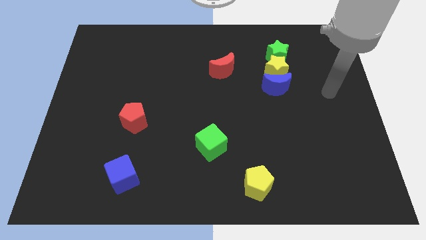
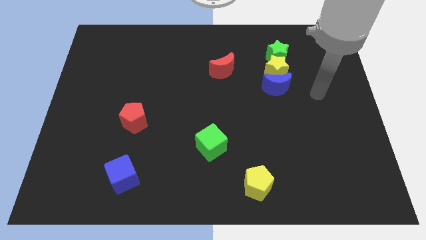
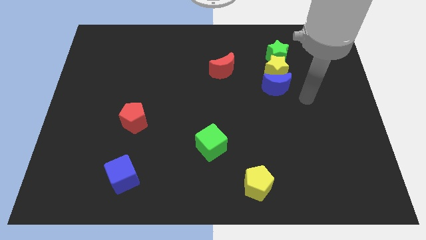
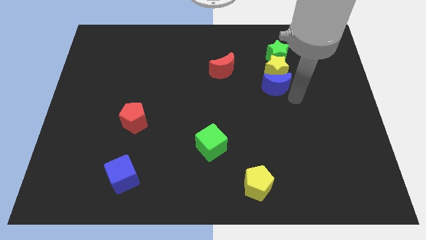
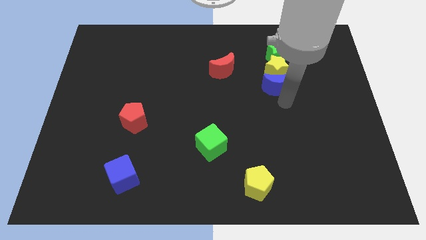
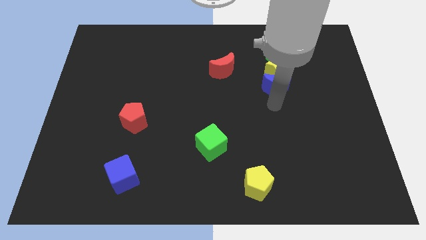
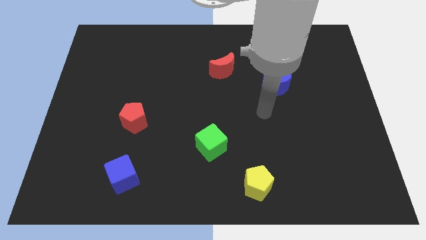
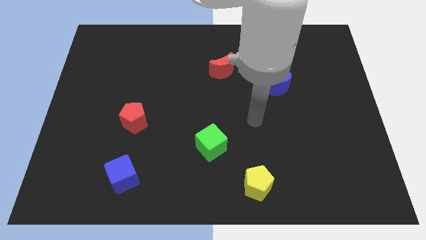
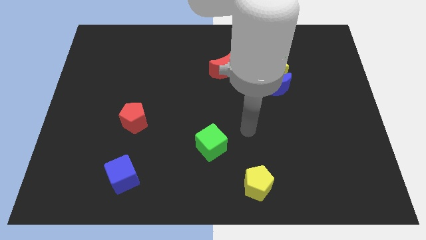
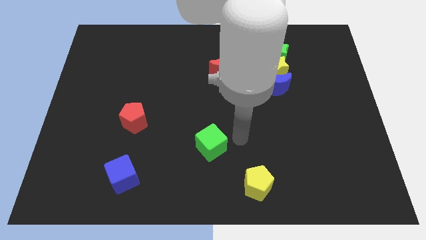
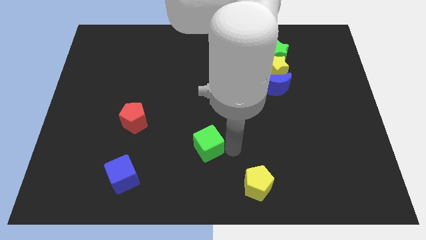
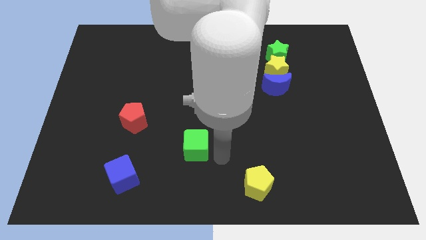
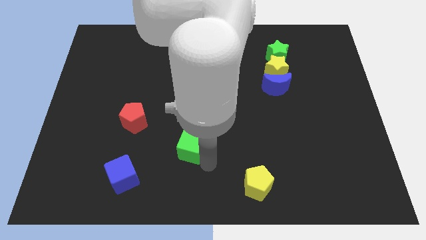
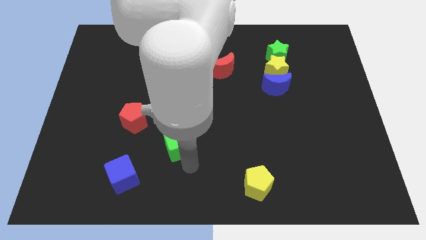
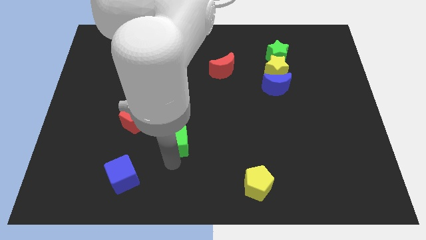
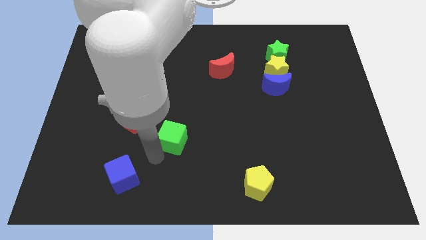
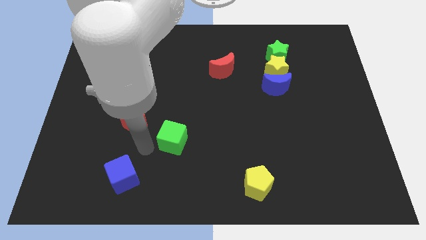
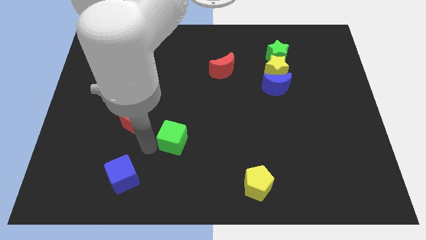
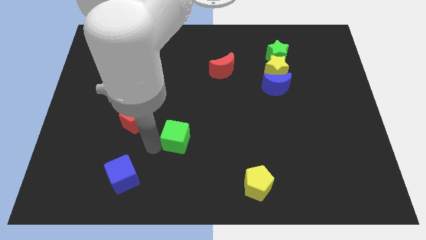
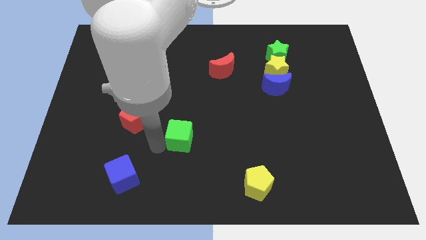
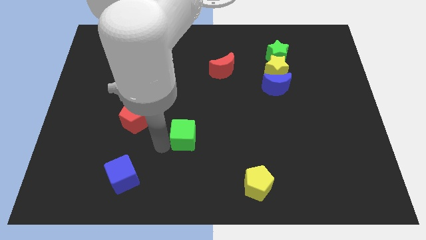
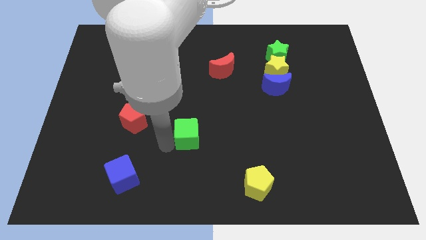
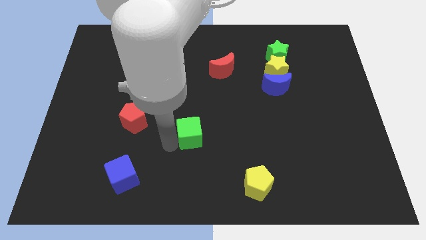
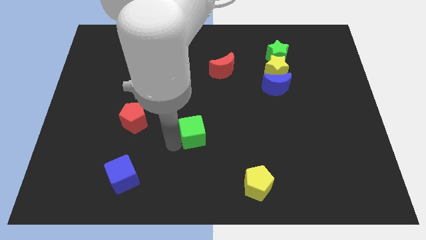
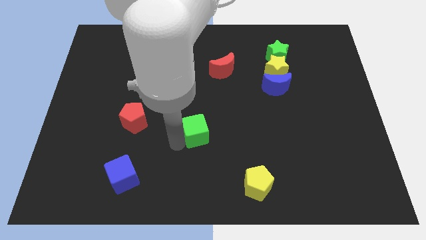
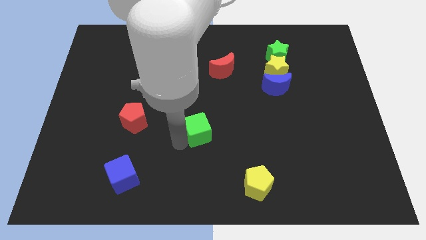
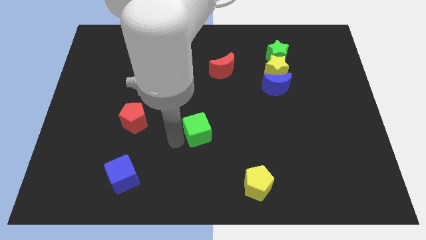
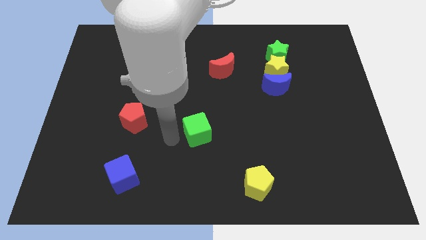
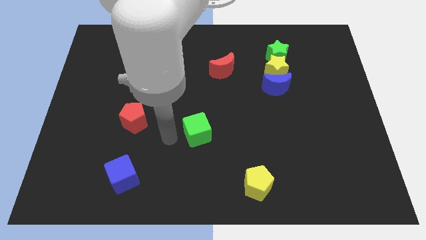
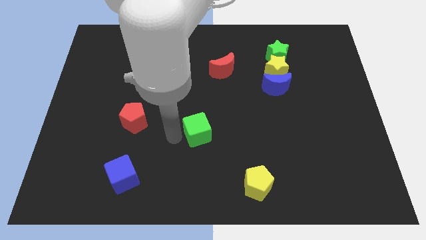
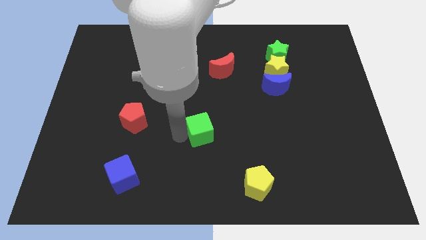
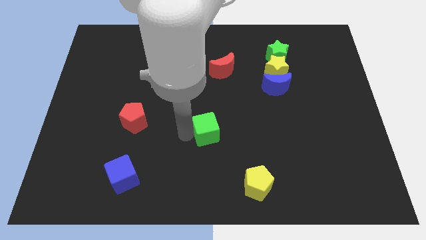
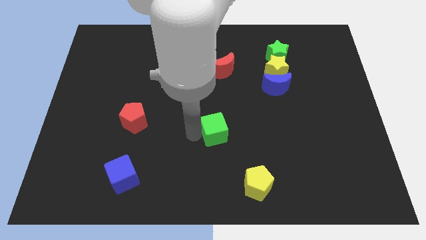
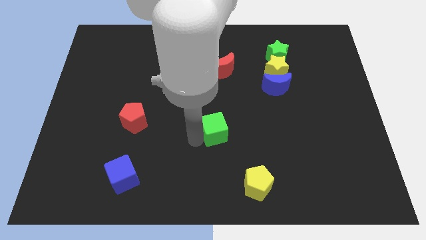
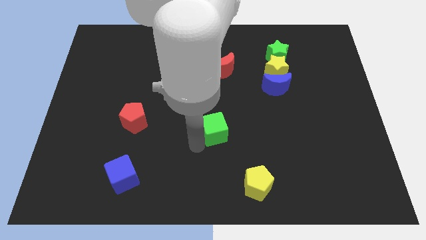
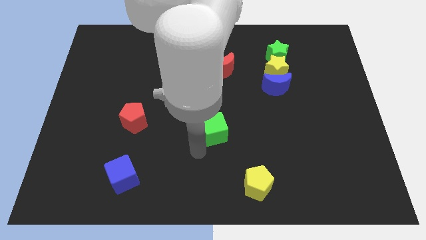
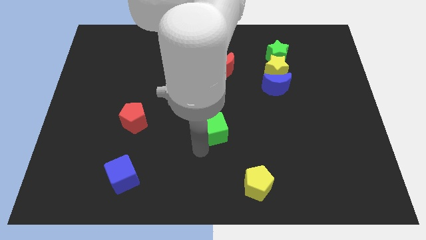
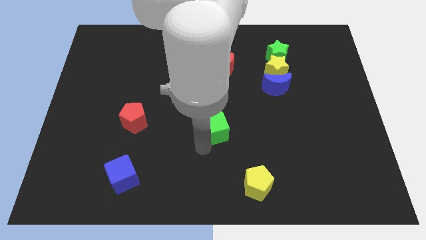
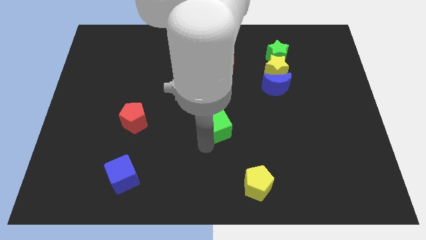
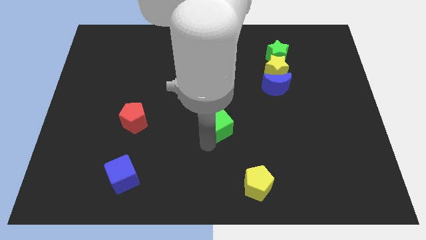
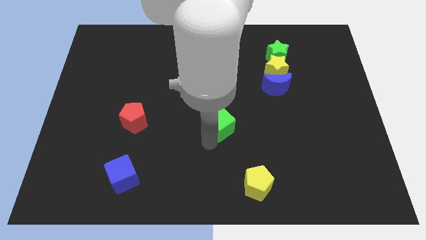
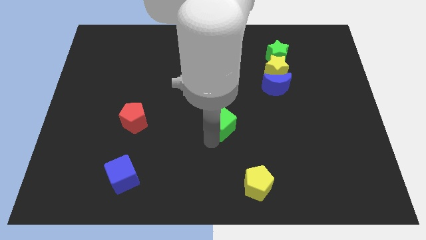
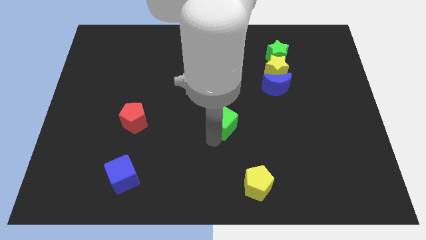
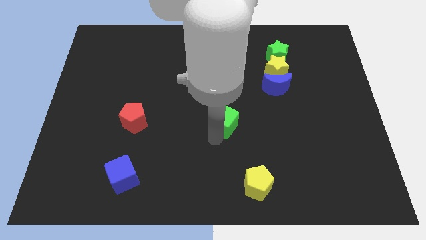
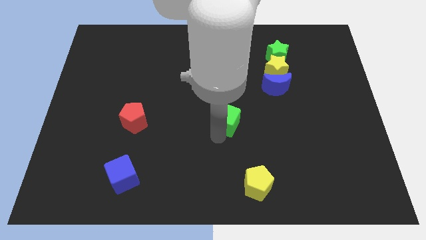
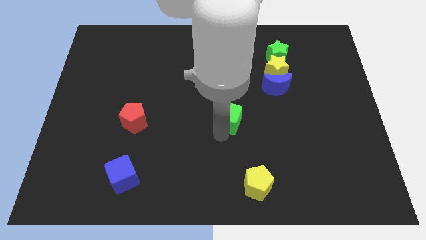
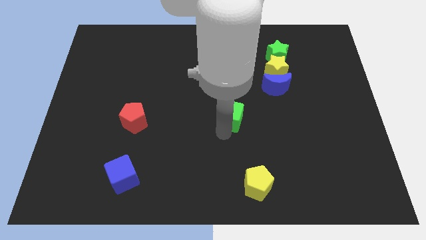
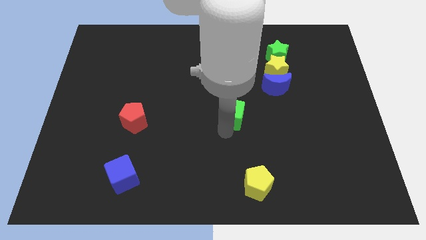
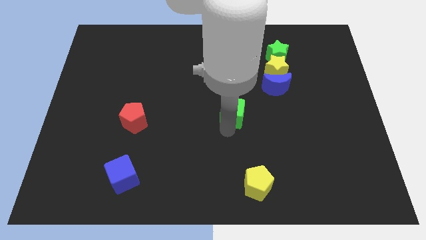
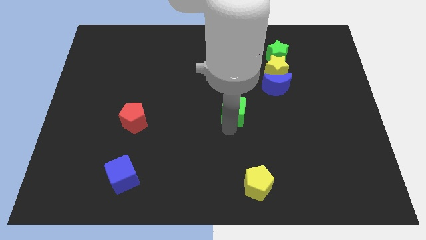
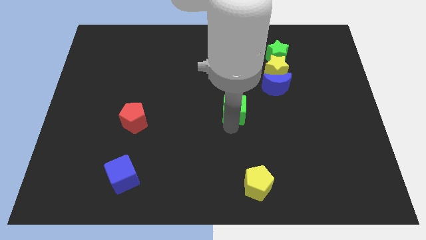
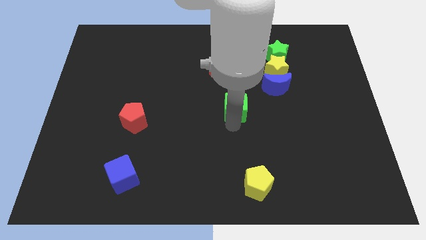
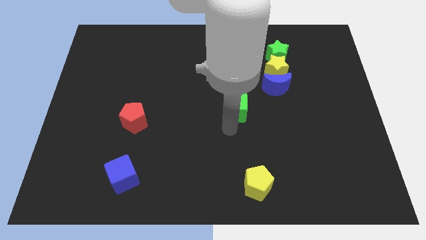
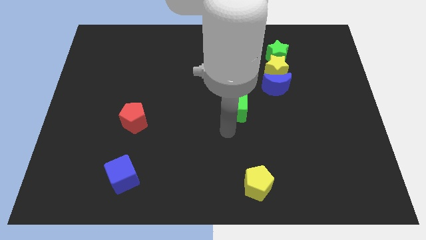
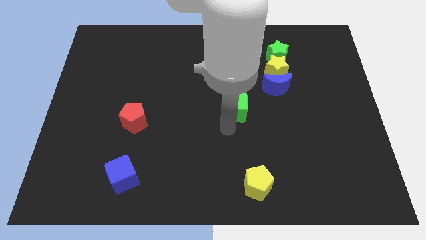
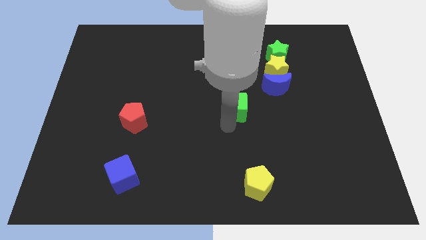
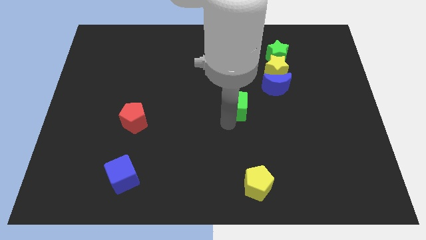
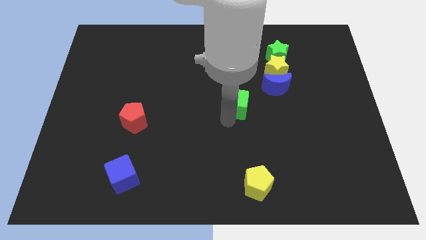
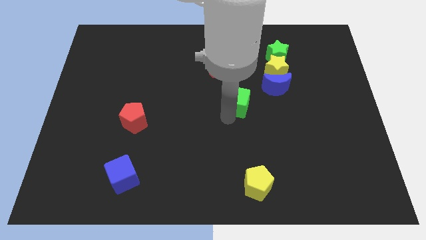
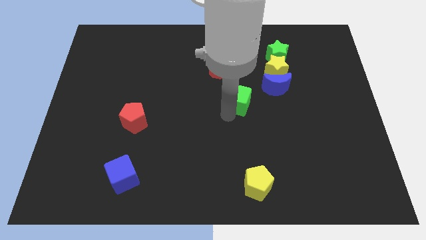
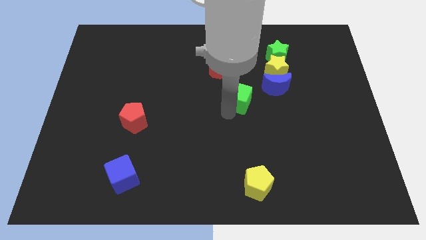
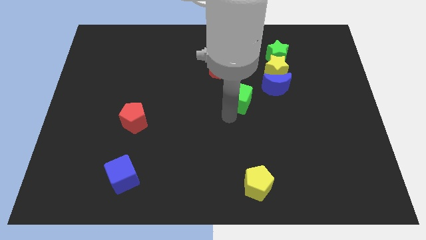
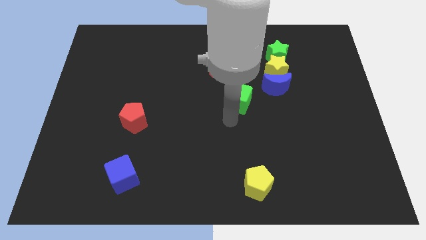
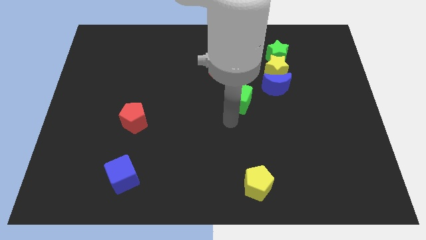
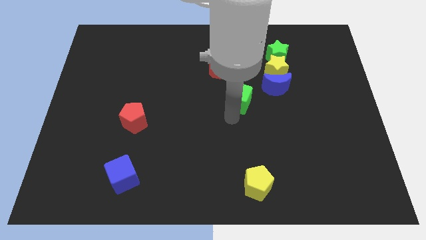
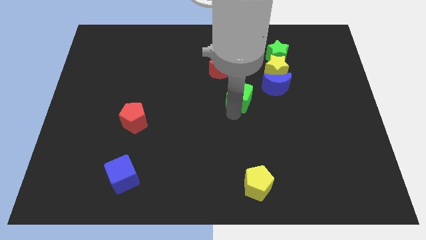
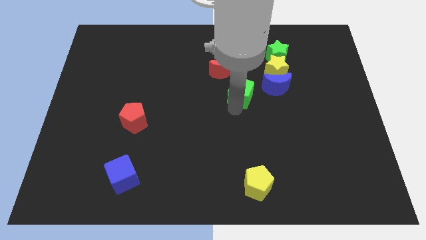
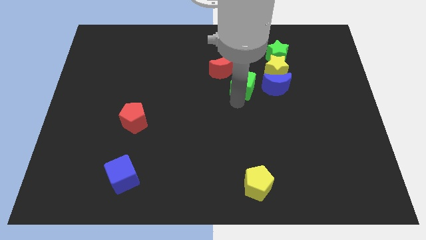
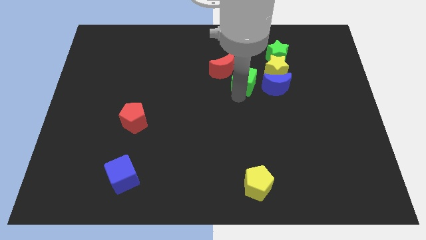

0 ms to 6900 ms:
slide the green cube to the top left side of the blue moon
